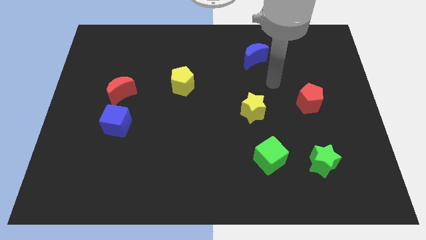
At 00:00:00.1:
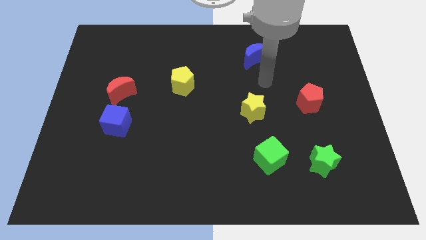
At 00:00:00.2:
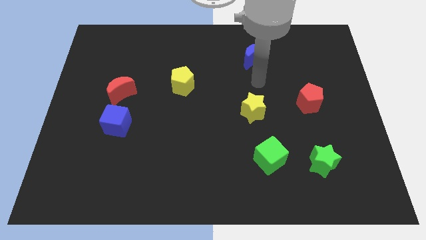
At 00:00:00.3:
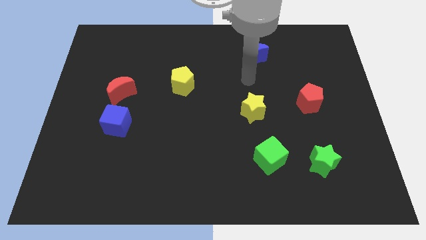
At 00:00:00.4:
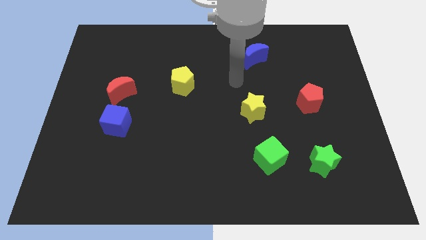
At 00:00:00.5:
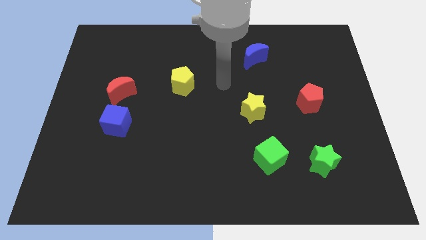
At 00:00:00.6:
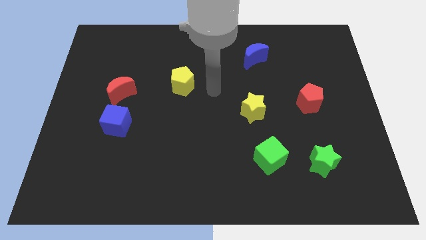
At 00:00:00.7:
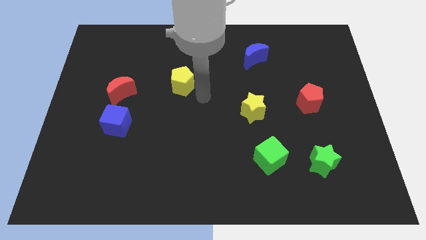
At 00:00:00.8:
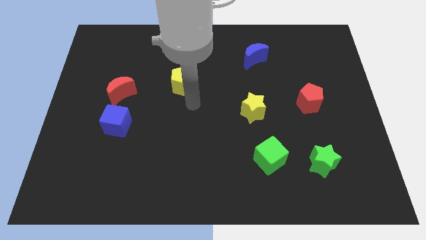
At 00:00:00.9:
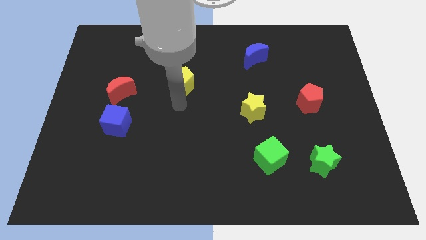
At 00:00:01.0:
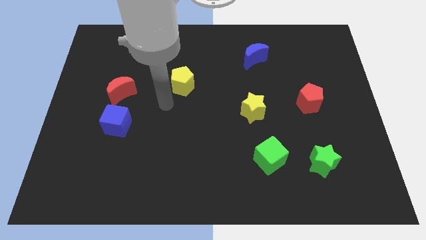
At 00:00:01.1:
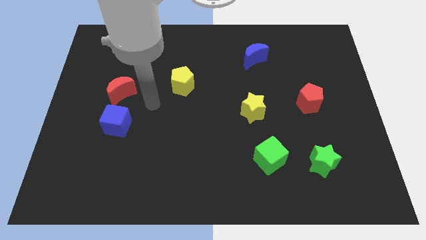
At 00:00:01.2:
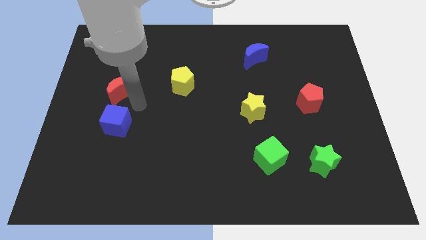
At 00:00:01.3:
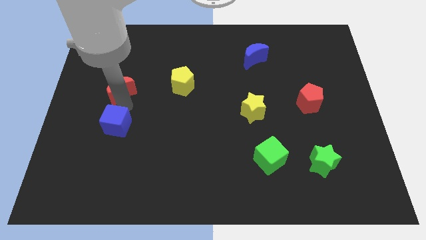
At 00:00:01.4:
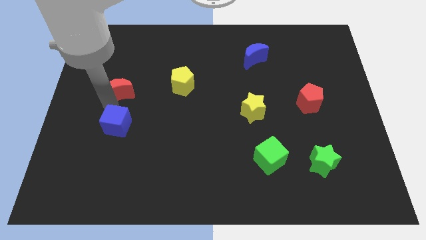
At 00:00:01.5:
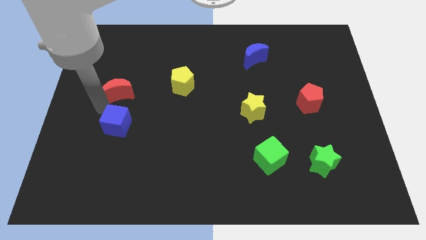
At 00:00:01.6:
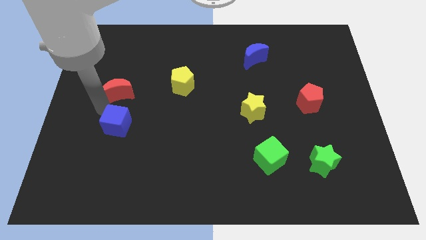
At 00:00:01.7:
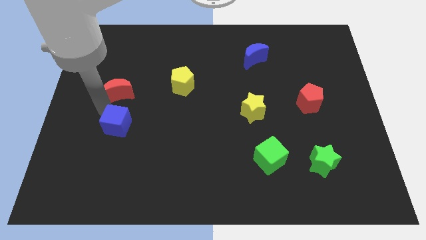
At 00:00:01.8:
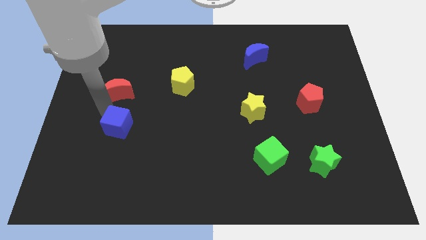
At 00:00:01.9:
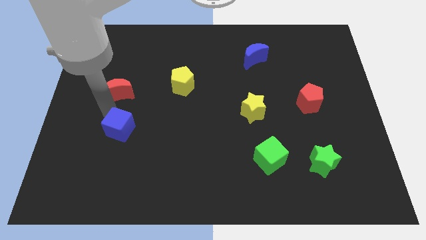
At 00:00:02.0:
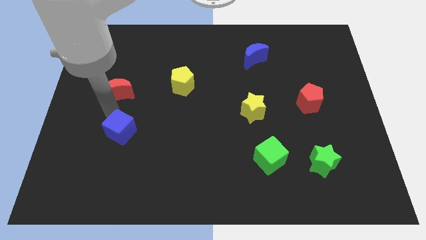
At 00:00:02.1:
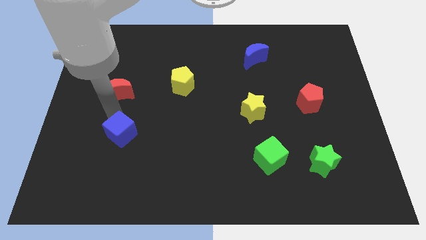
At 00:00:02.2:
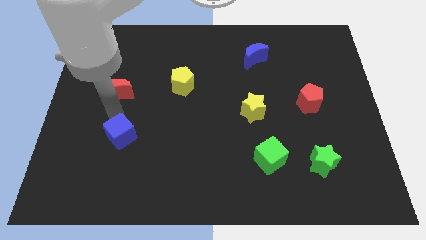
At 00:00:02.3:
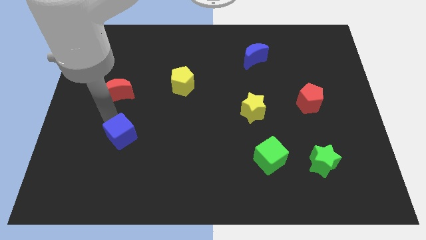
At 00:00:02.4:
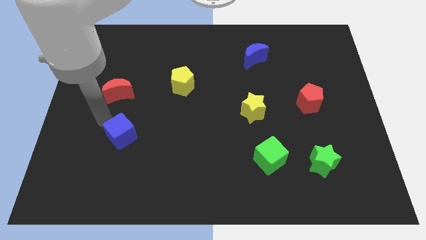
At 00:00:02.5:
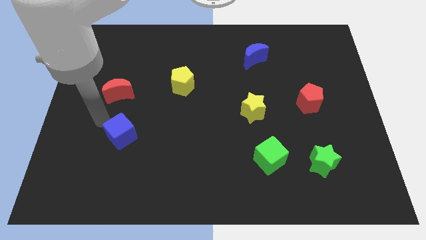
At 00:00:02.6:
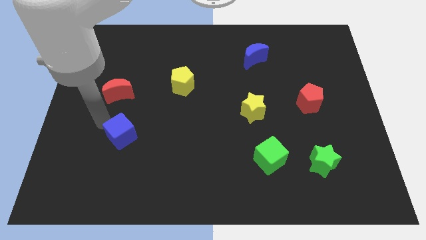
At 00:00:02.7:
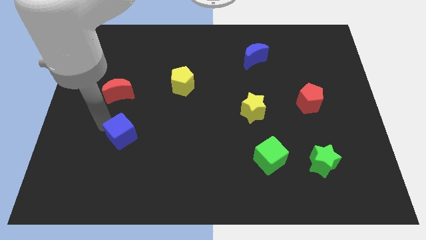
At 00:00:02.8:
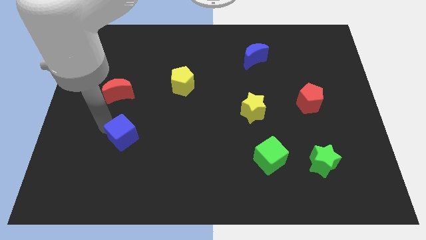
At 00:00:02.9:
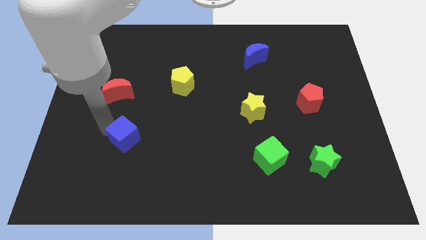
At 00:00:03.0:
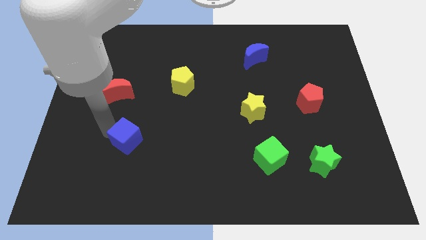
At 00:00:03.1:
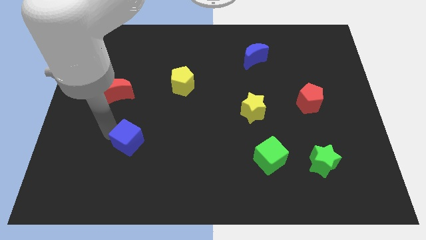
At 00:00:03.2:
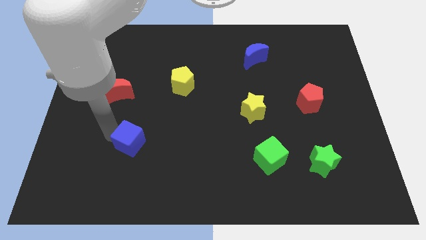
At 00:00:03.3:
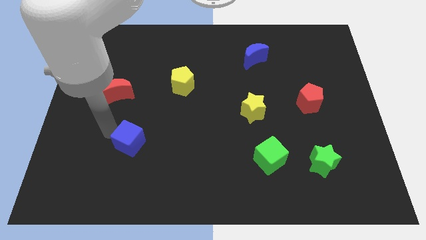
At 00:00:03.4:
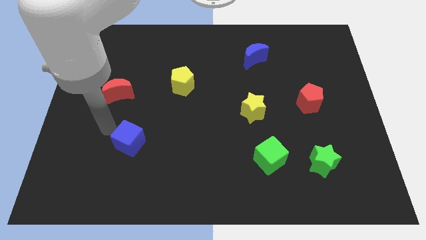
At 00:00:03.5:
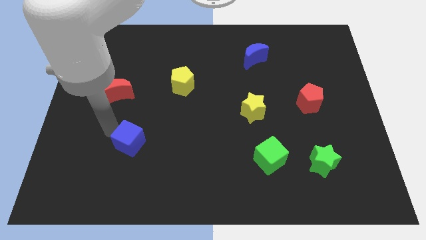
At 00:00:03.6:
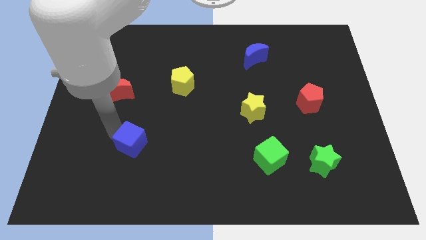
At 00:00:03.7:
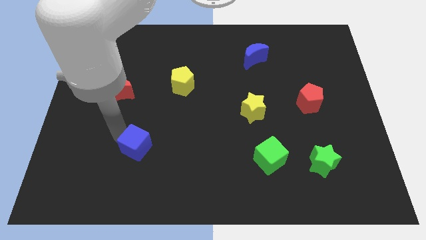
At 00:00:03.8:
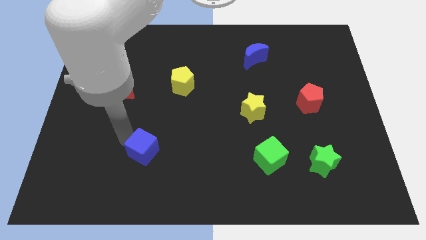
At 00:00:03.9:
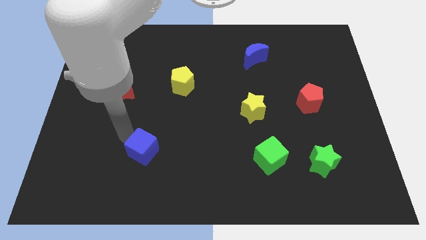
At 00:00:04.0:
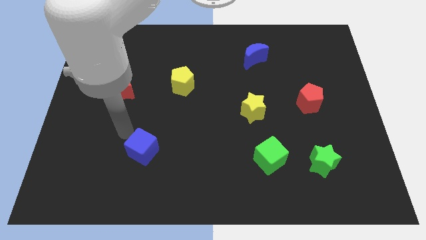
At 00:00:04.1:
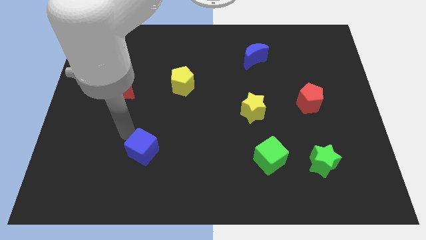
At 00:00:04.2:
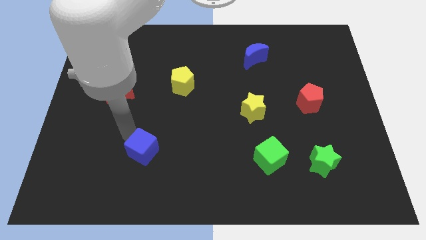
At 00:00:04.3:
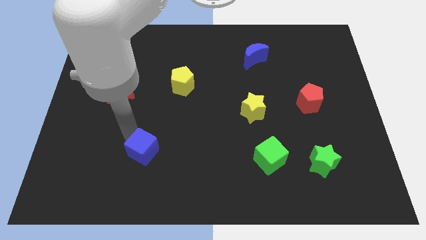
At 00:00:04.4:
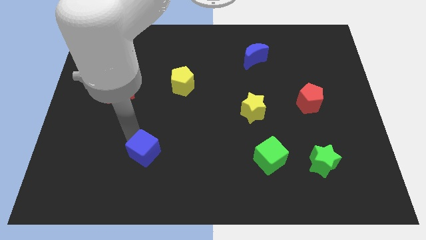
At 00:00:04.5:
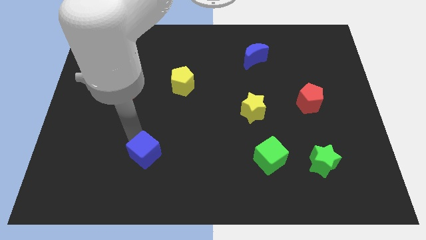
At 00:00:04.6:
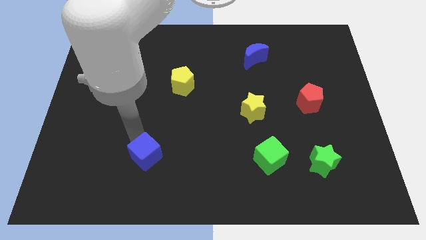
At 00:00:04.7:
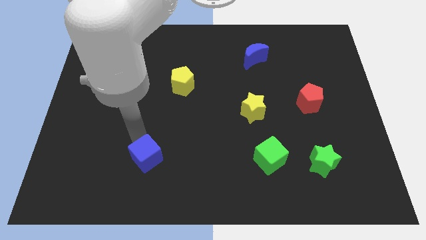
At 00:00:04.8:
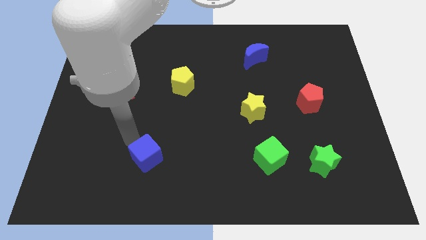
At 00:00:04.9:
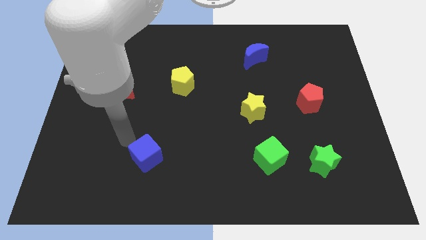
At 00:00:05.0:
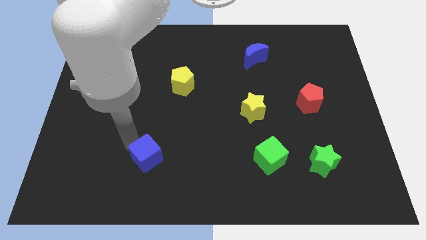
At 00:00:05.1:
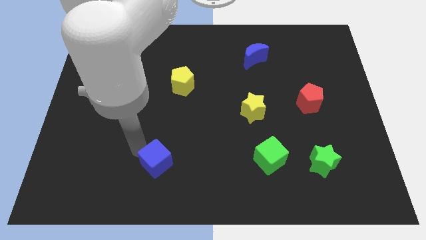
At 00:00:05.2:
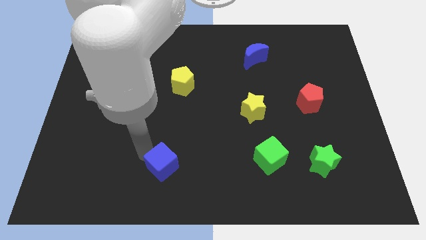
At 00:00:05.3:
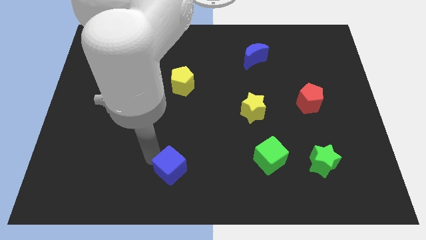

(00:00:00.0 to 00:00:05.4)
put the blue cube to the bottom side

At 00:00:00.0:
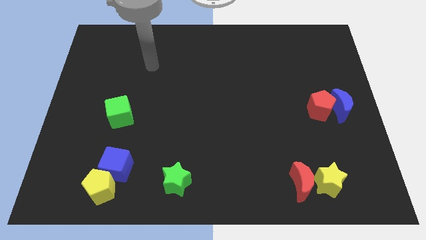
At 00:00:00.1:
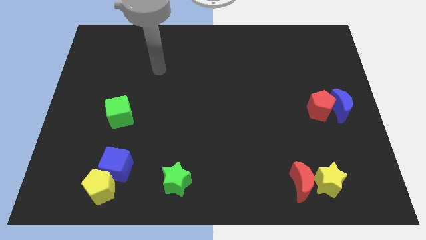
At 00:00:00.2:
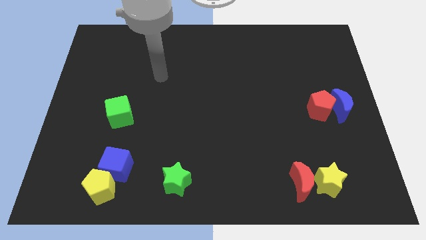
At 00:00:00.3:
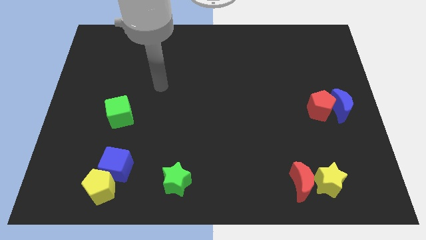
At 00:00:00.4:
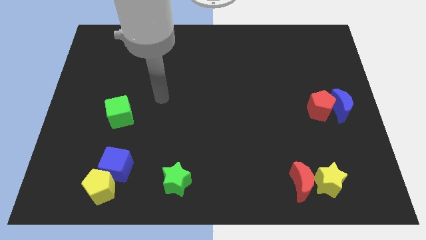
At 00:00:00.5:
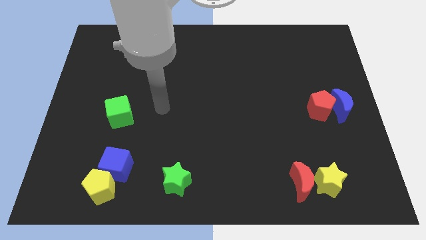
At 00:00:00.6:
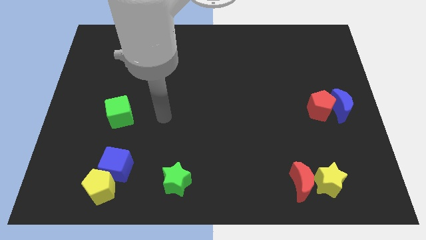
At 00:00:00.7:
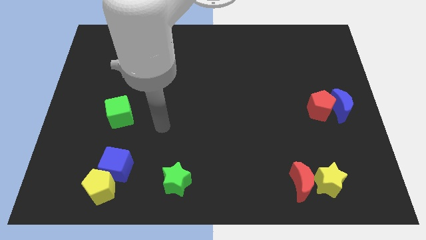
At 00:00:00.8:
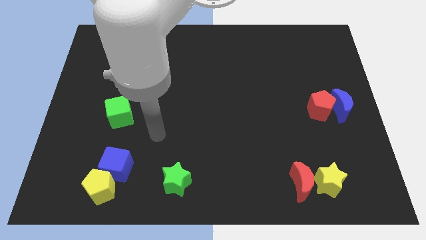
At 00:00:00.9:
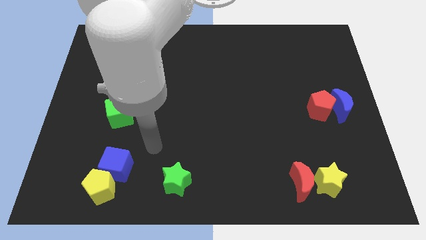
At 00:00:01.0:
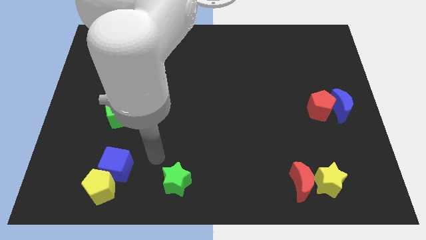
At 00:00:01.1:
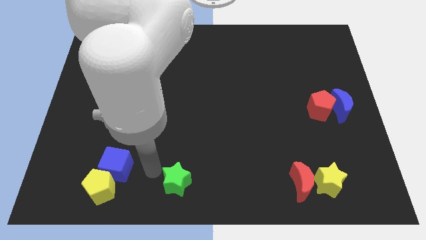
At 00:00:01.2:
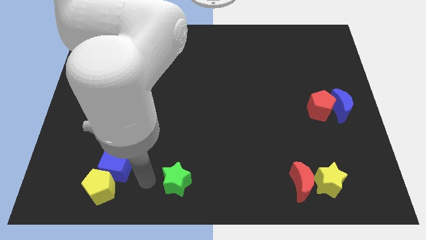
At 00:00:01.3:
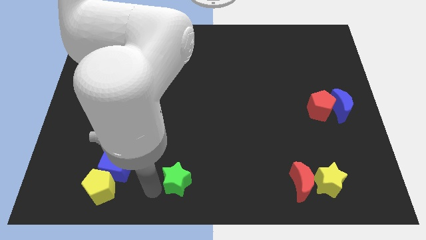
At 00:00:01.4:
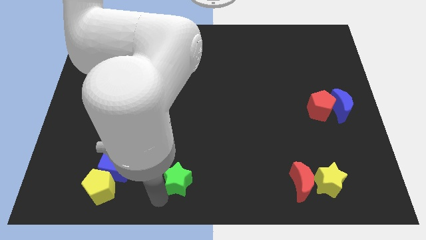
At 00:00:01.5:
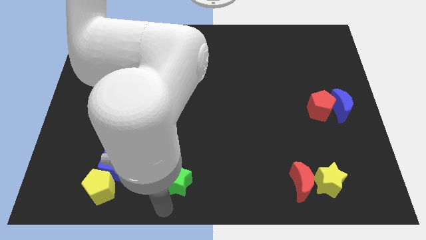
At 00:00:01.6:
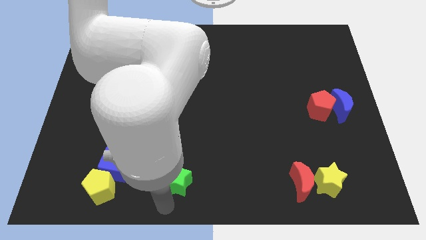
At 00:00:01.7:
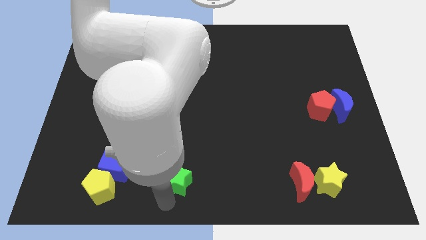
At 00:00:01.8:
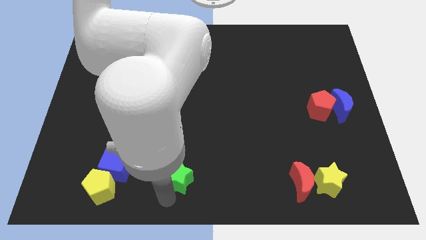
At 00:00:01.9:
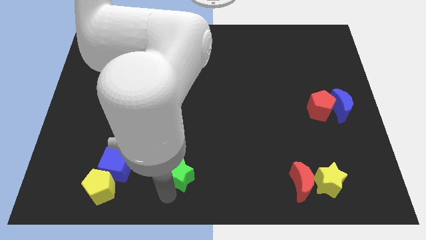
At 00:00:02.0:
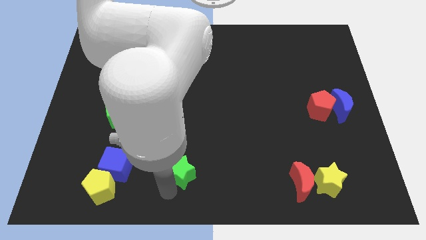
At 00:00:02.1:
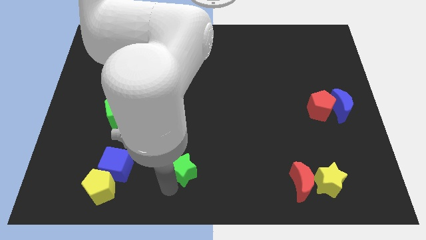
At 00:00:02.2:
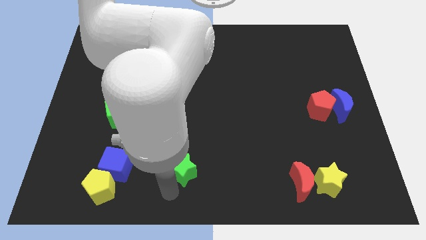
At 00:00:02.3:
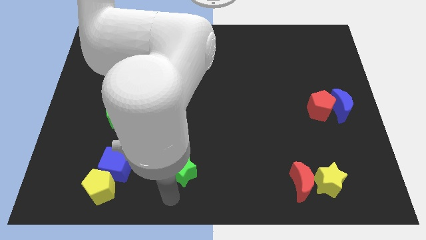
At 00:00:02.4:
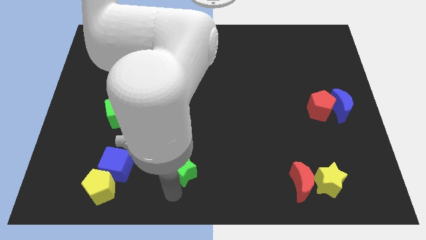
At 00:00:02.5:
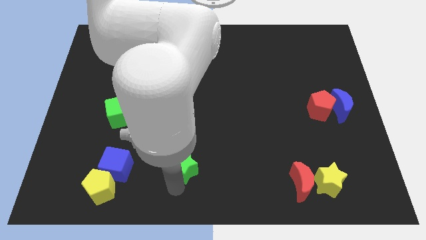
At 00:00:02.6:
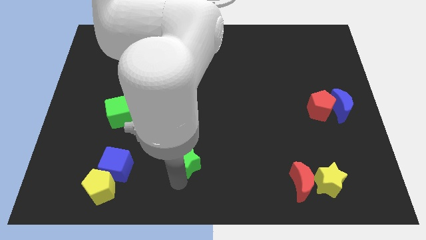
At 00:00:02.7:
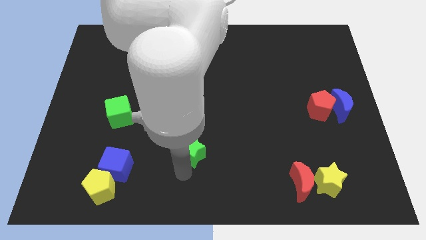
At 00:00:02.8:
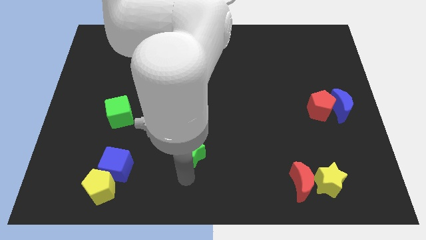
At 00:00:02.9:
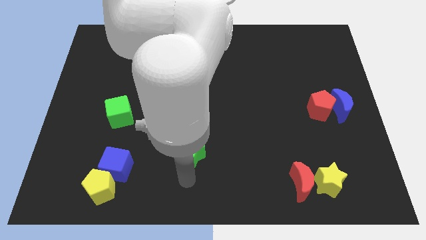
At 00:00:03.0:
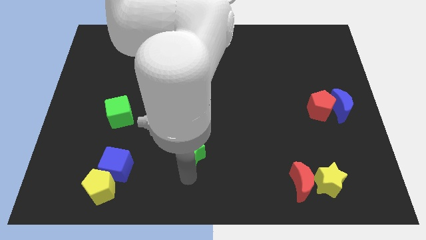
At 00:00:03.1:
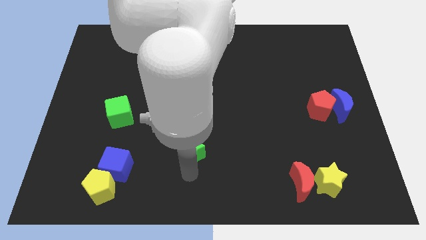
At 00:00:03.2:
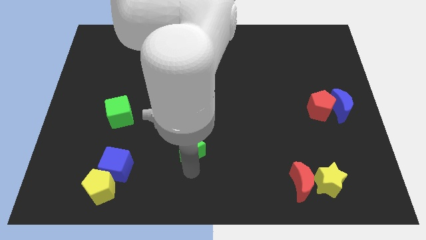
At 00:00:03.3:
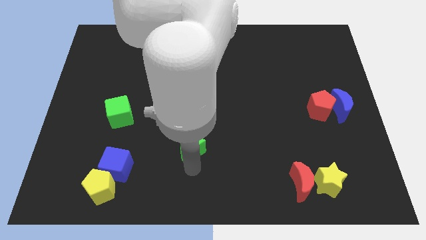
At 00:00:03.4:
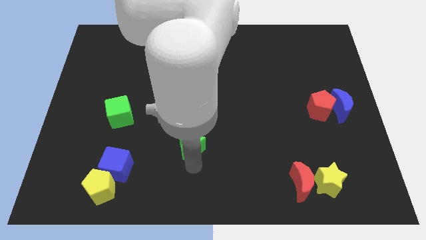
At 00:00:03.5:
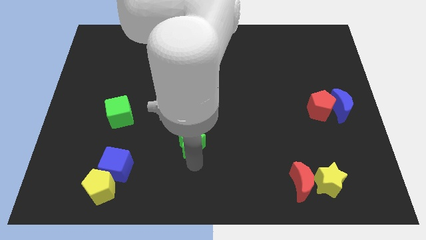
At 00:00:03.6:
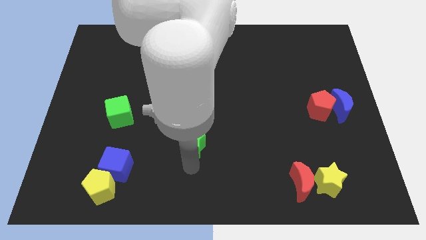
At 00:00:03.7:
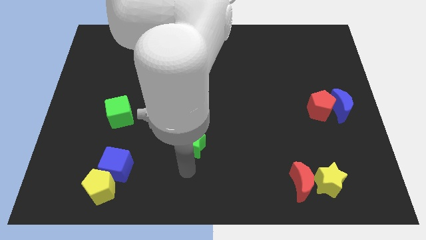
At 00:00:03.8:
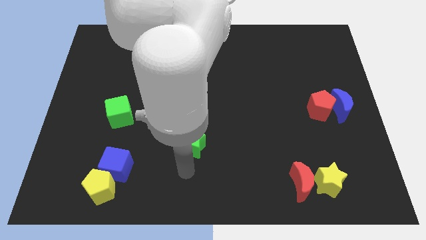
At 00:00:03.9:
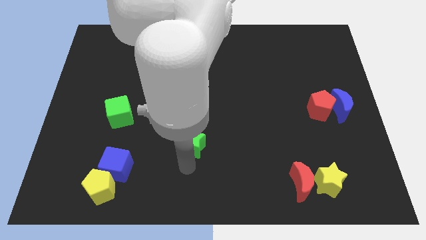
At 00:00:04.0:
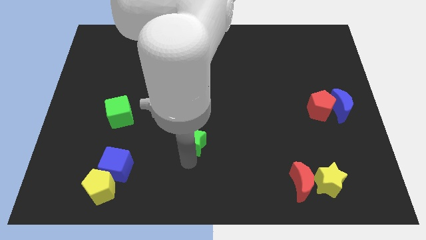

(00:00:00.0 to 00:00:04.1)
push the green star to the middle
